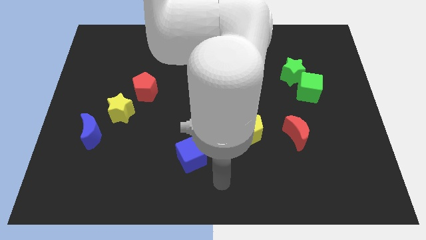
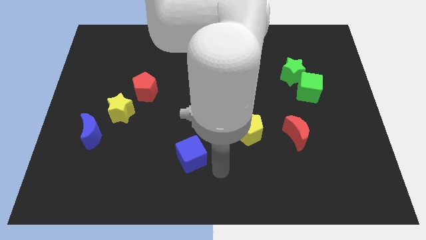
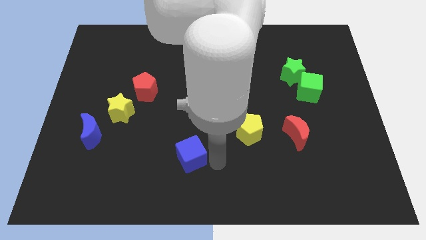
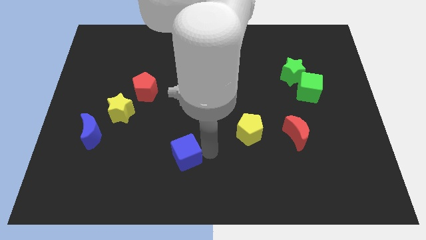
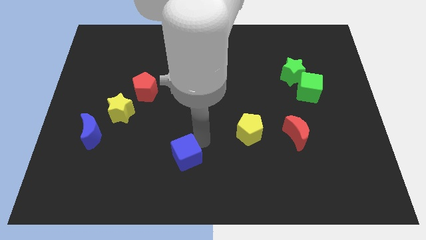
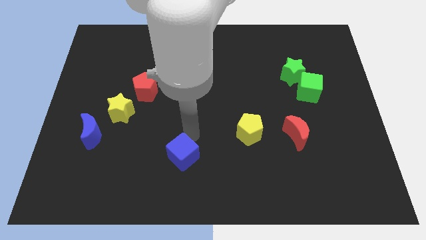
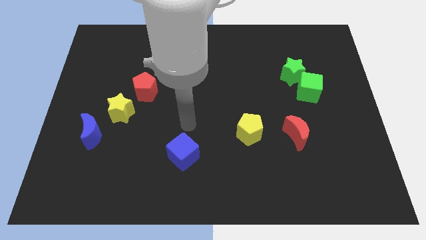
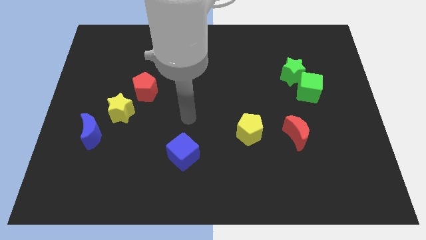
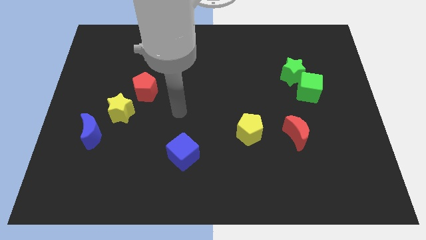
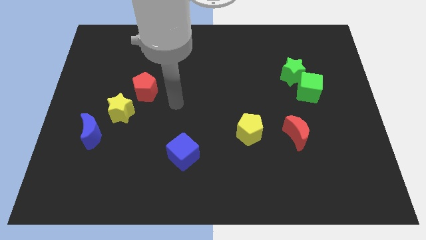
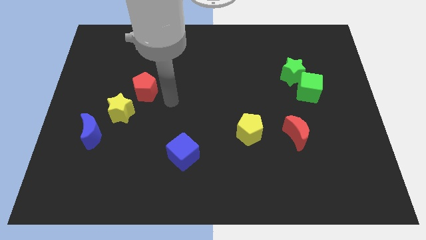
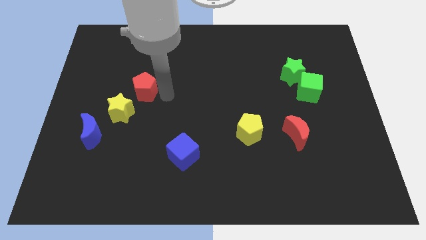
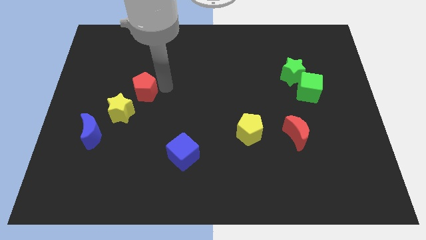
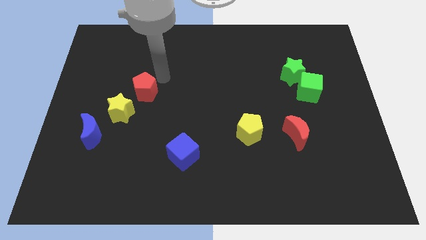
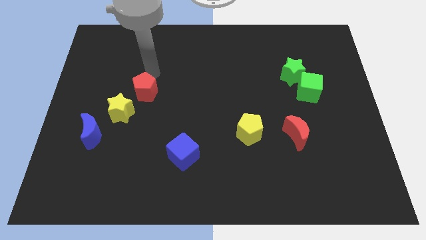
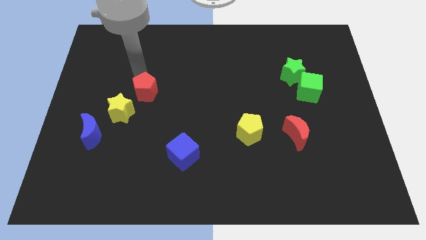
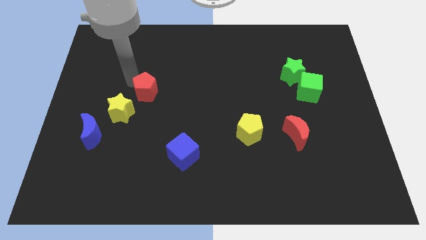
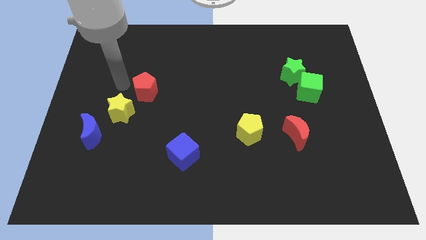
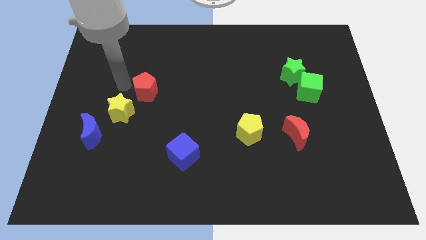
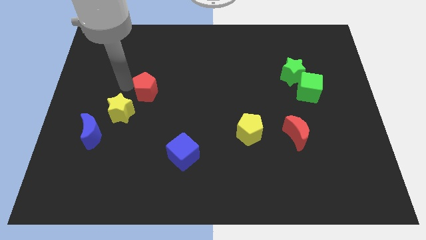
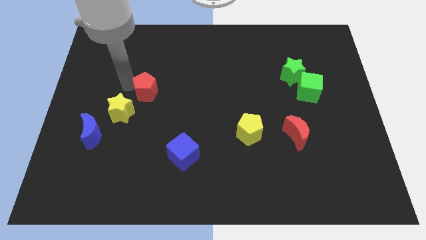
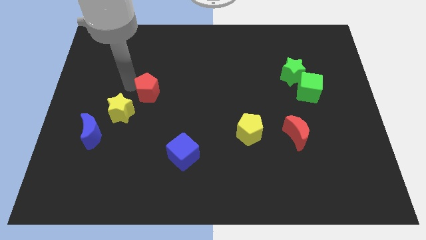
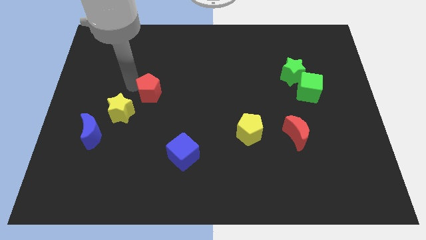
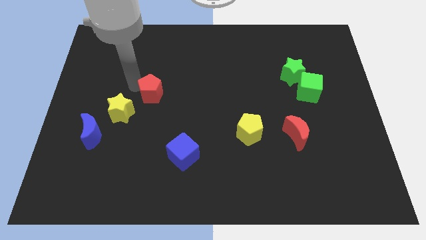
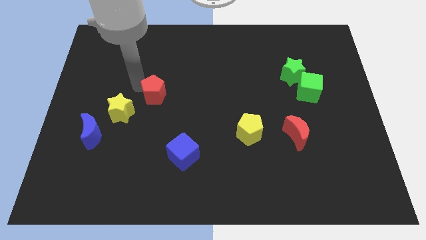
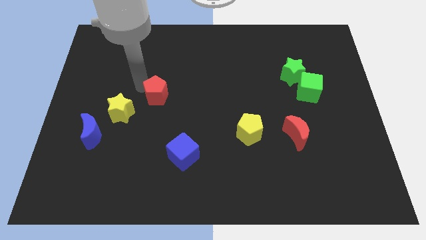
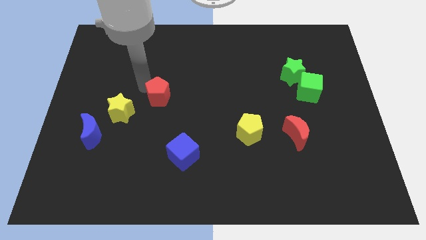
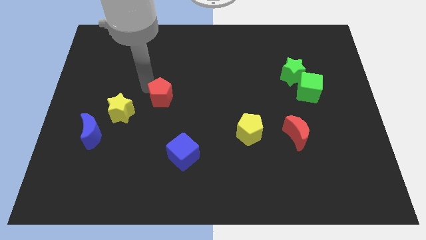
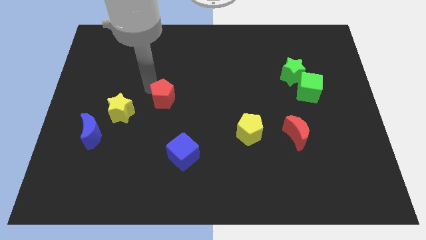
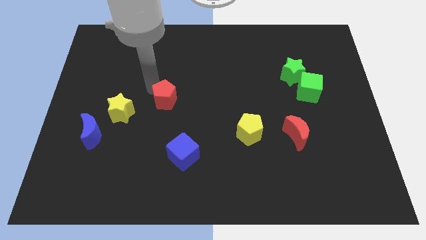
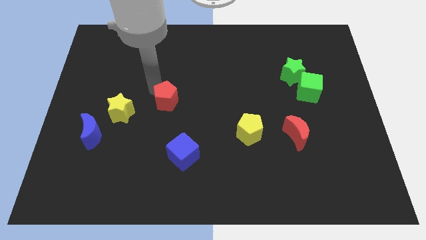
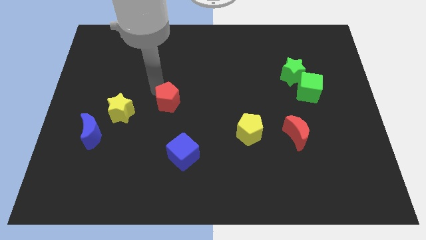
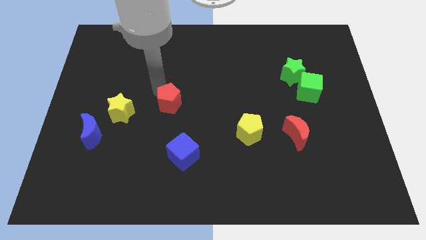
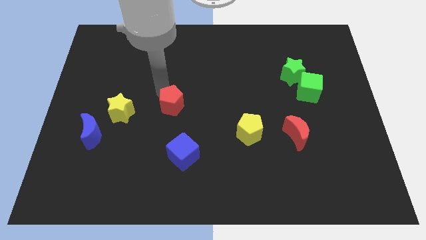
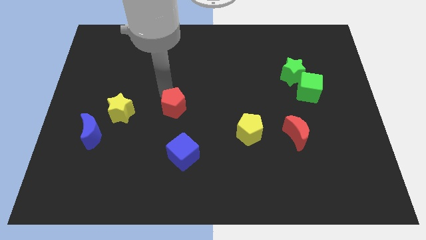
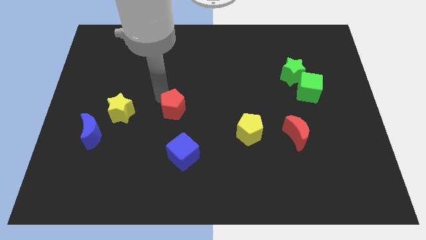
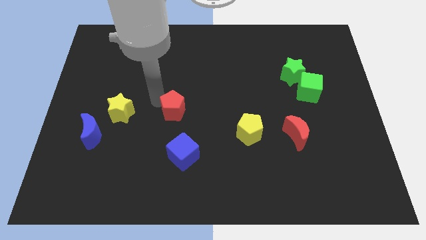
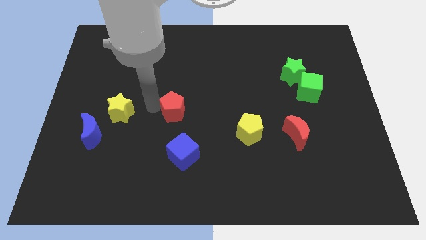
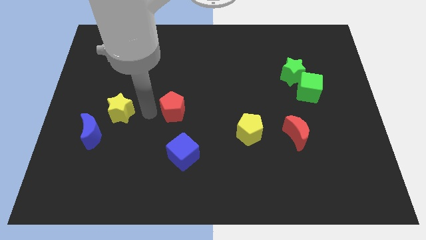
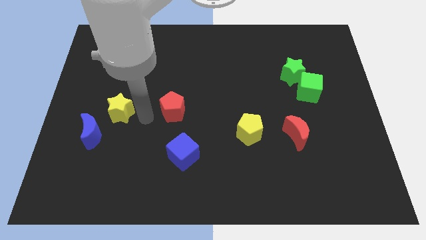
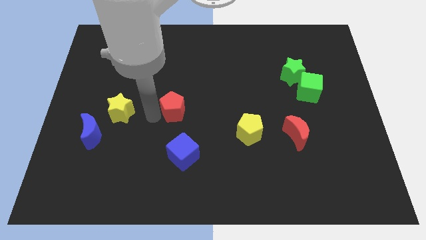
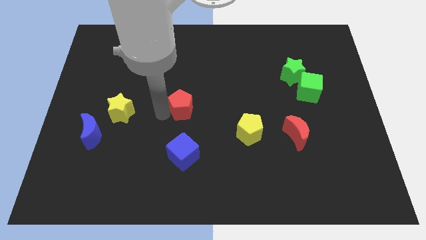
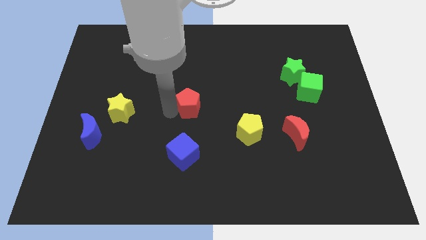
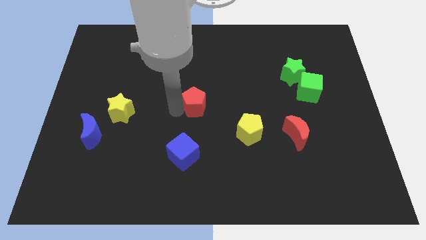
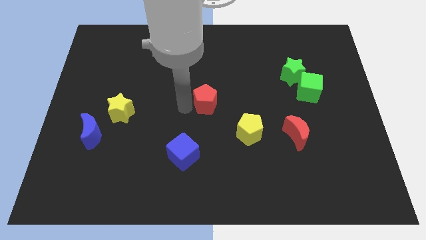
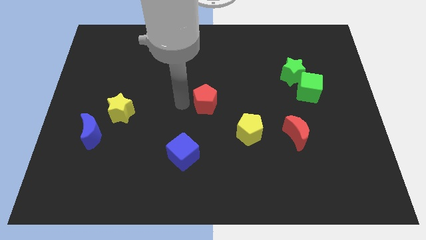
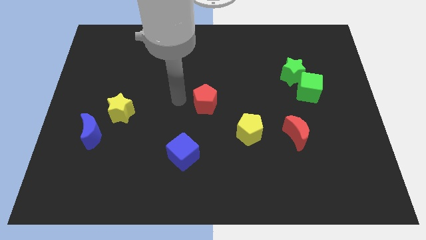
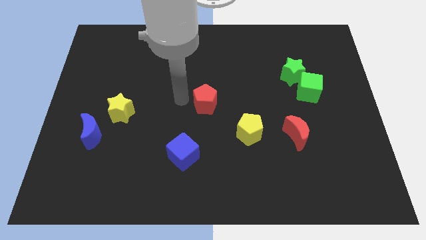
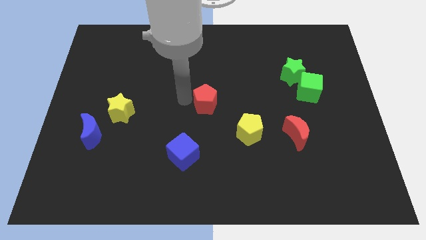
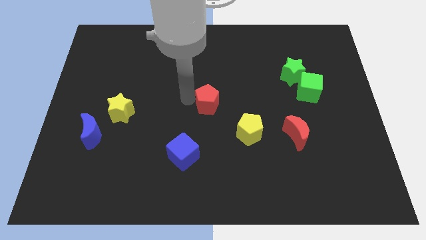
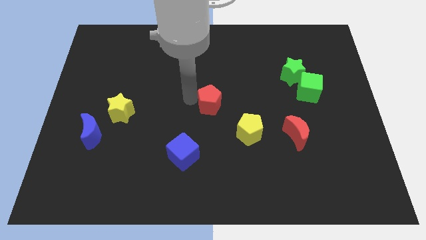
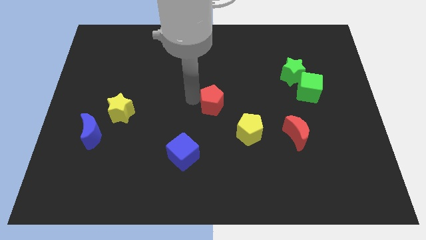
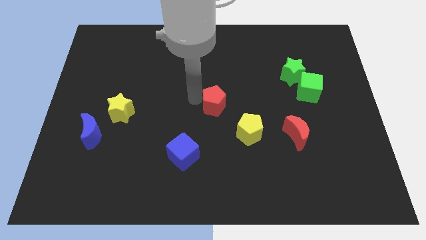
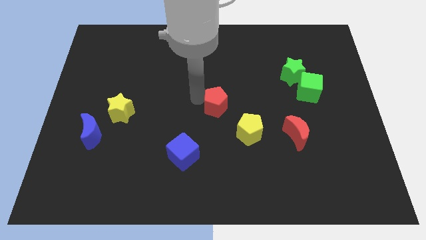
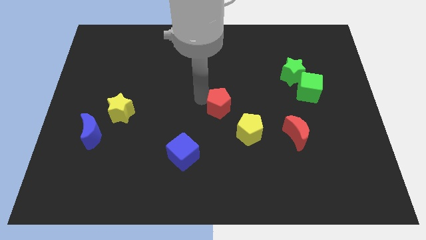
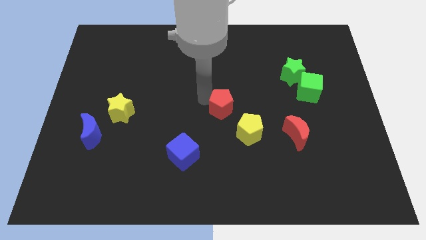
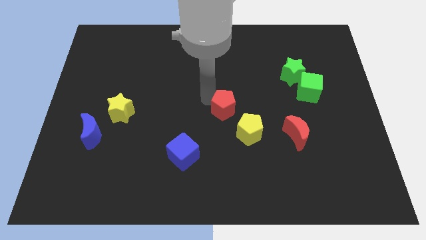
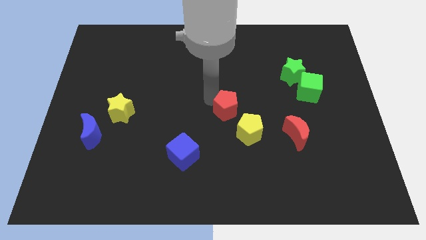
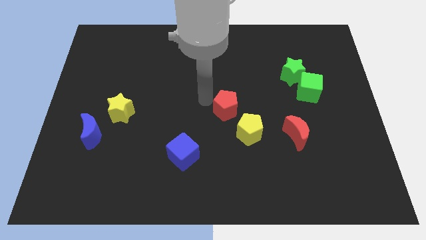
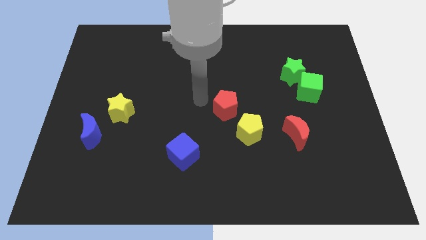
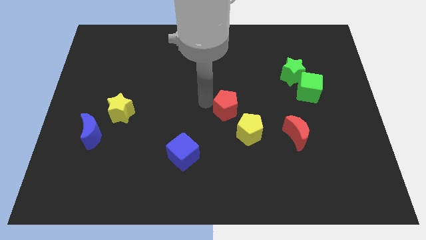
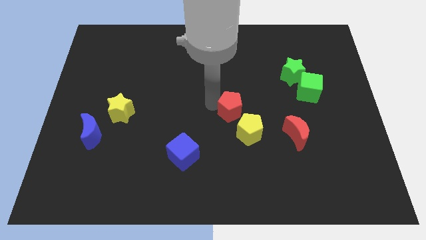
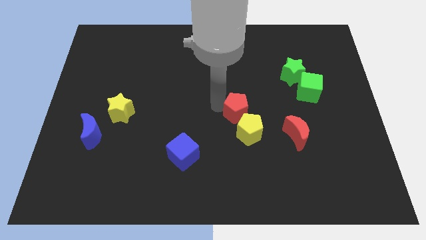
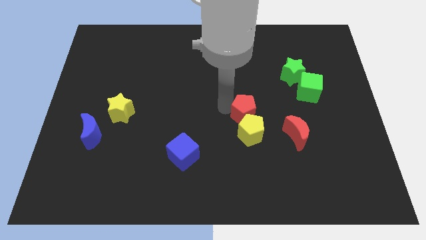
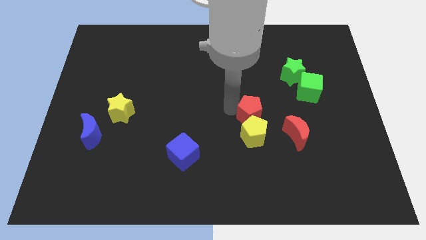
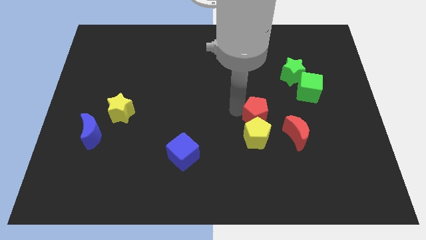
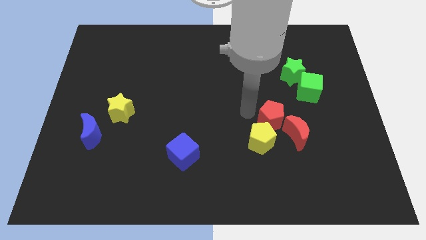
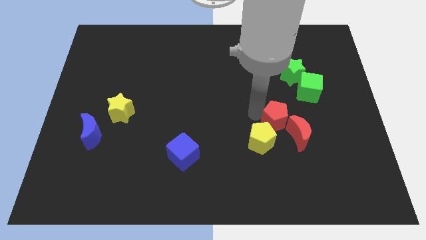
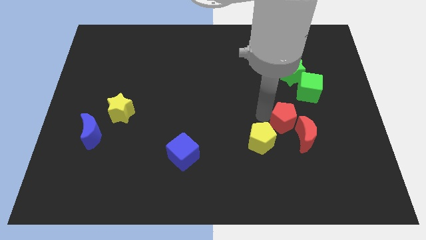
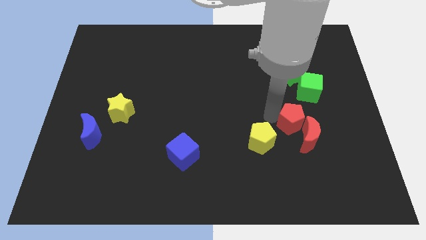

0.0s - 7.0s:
push the red pentagon close to the red moon

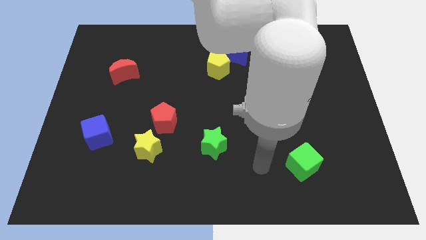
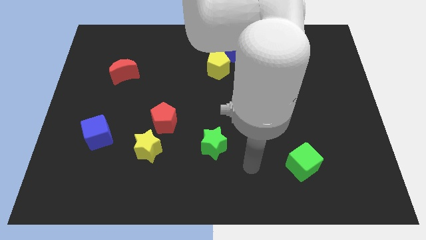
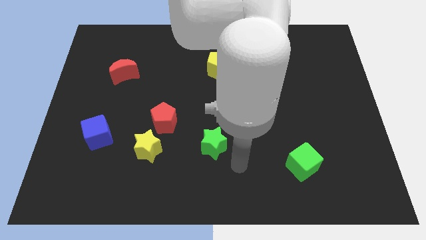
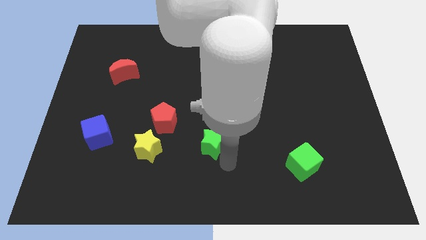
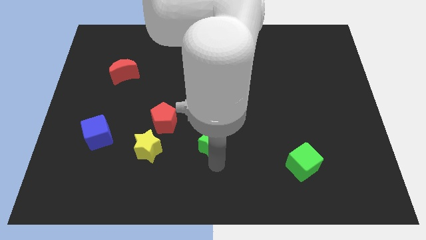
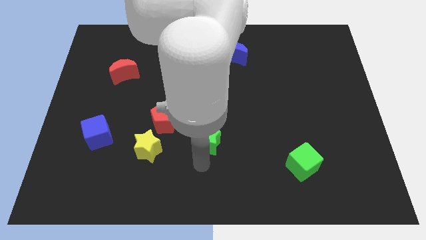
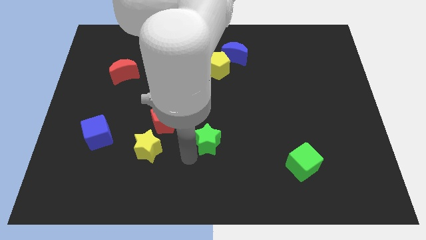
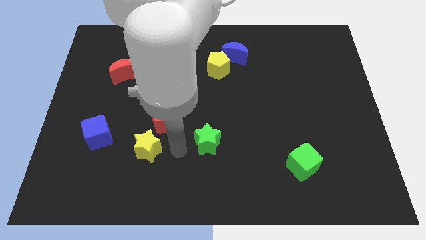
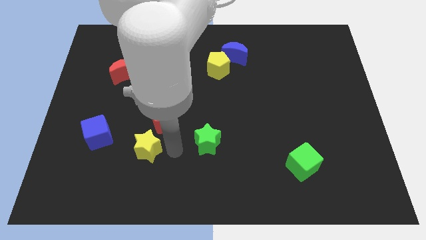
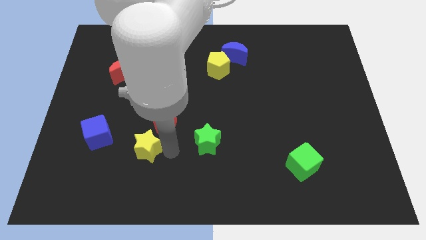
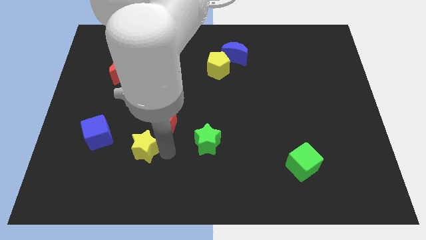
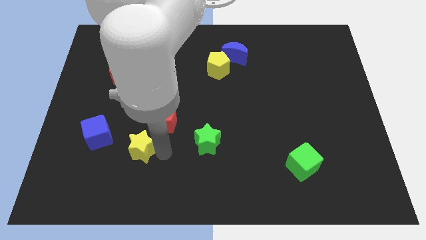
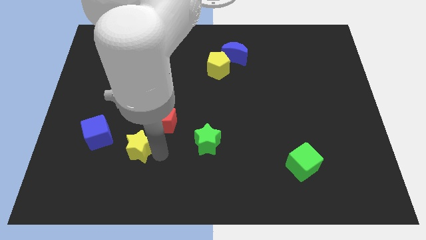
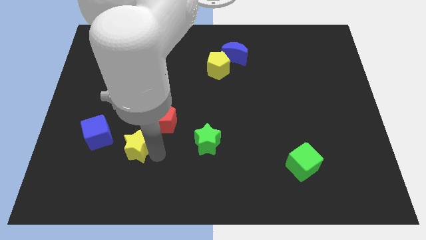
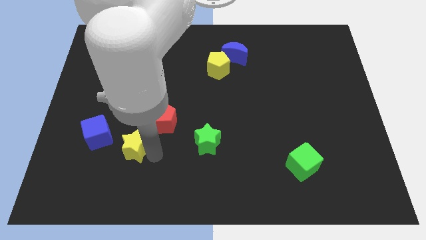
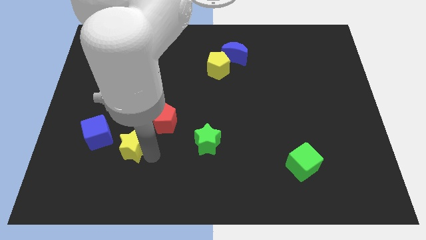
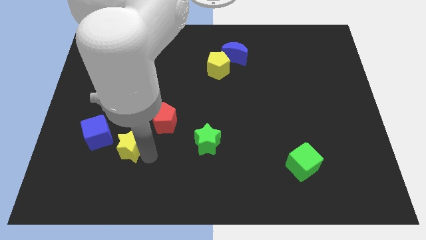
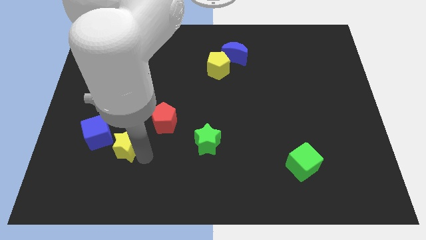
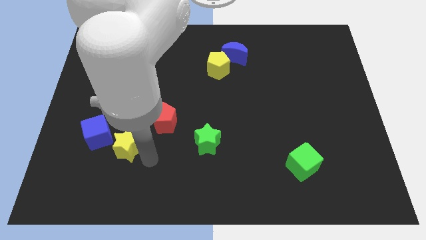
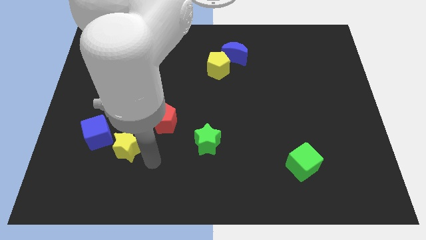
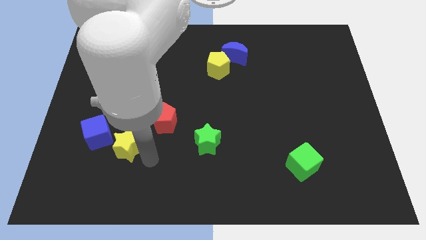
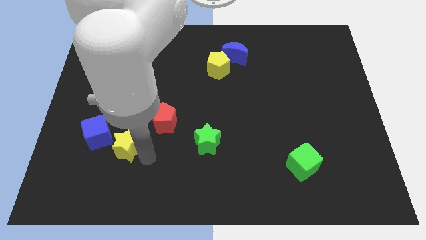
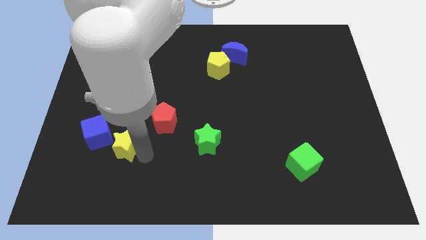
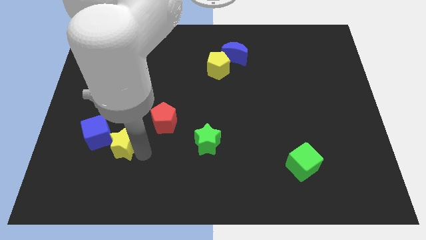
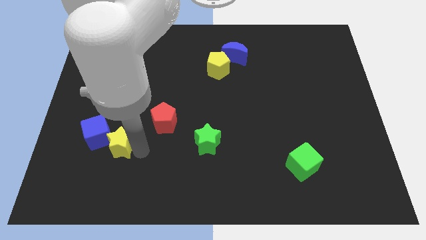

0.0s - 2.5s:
put the yellow star towards the blue cube
